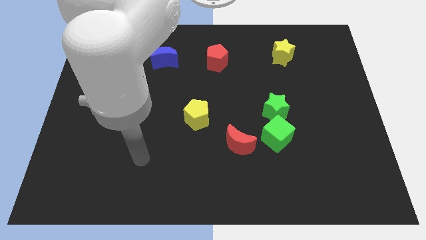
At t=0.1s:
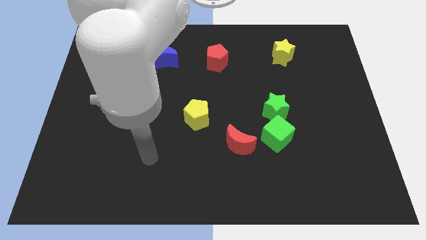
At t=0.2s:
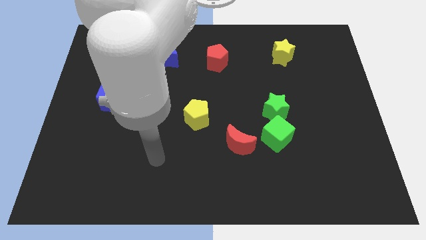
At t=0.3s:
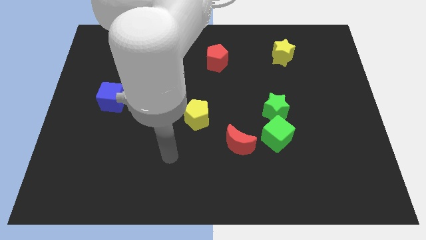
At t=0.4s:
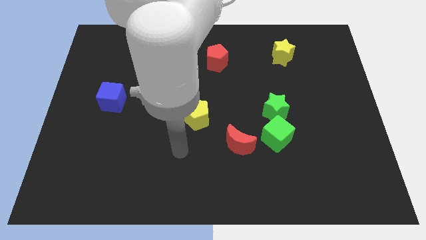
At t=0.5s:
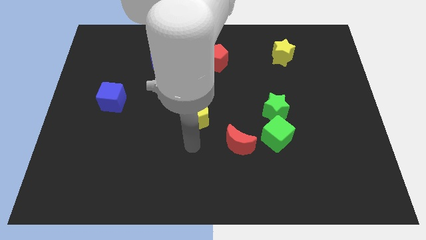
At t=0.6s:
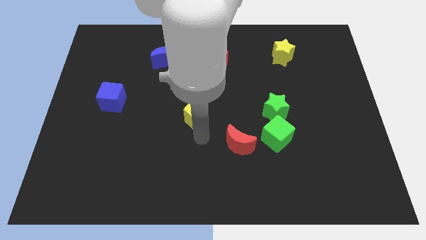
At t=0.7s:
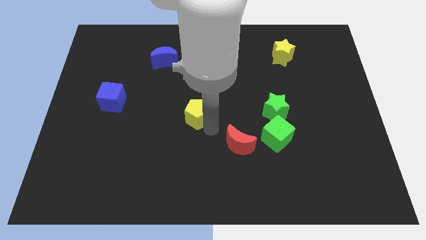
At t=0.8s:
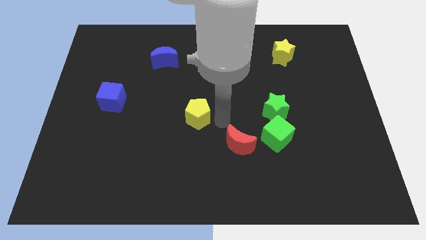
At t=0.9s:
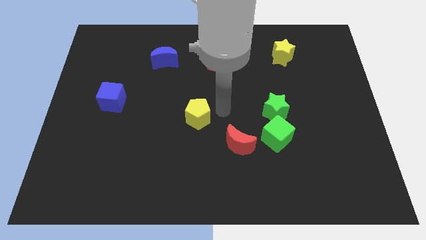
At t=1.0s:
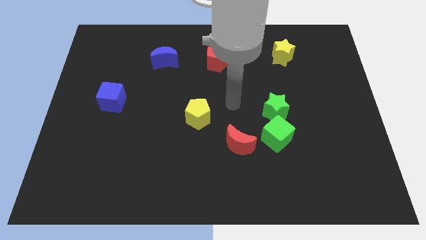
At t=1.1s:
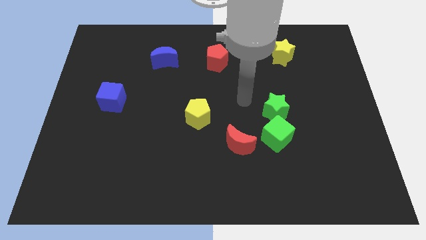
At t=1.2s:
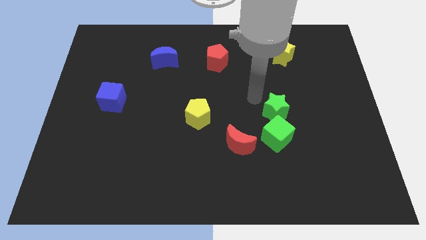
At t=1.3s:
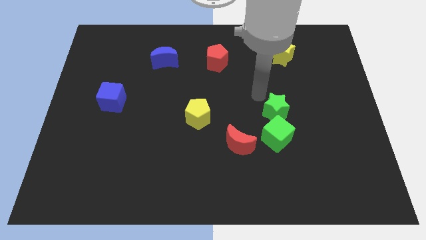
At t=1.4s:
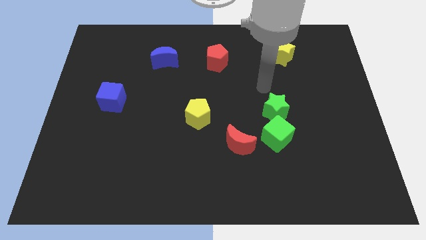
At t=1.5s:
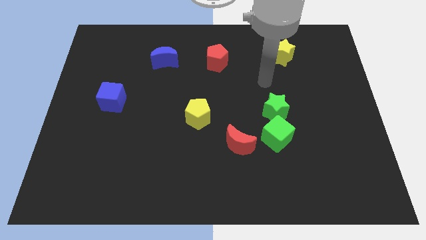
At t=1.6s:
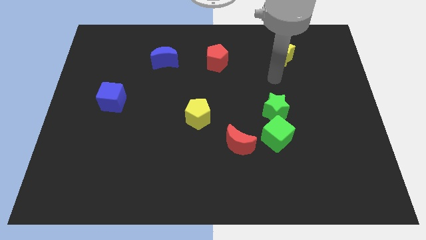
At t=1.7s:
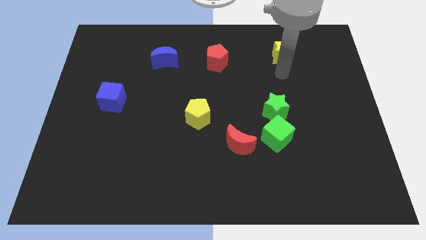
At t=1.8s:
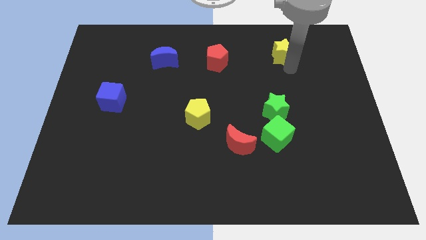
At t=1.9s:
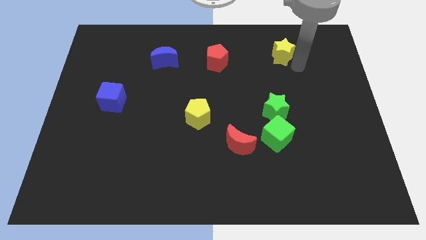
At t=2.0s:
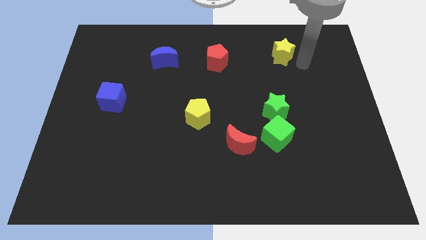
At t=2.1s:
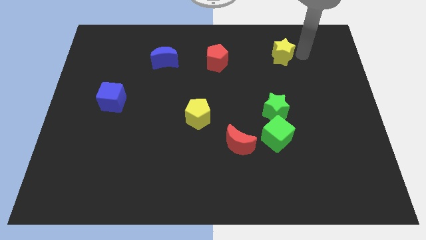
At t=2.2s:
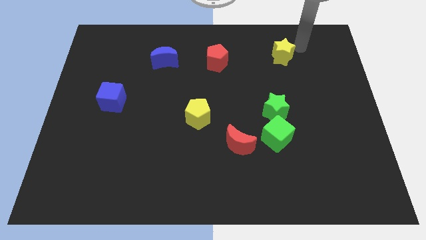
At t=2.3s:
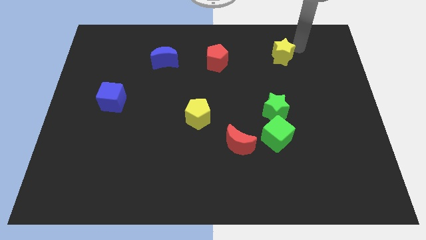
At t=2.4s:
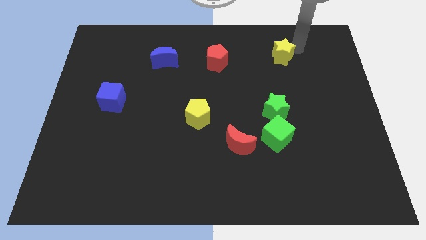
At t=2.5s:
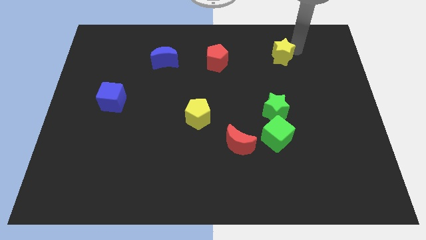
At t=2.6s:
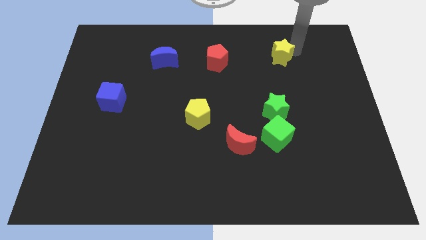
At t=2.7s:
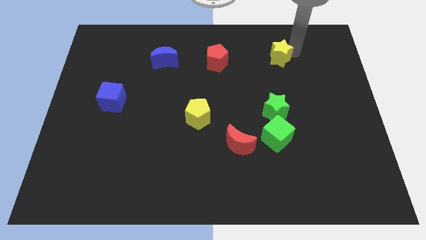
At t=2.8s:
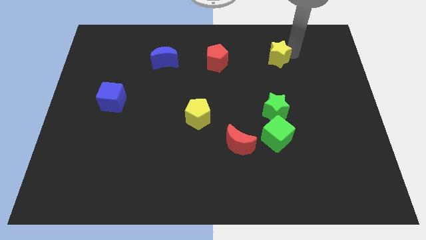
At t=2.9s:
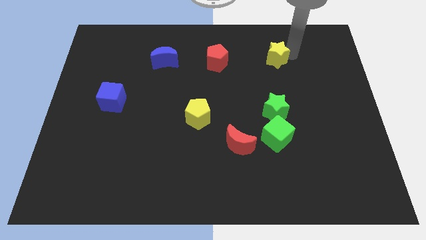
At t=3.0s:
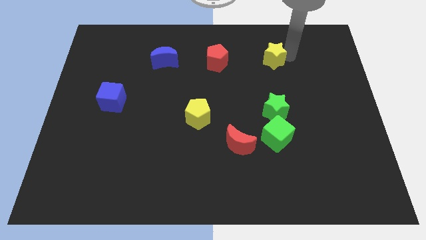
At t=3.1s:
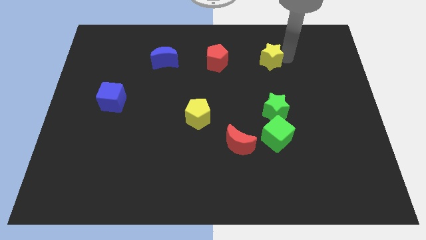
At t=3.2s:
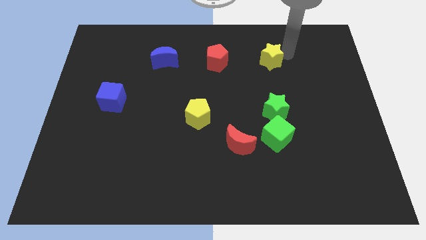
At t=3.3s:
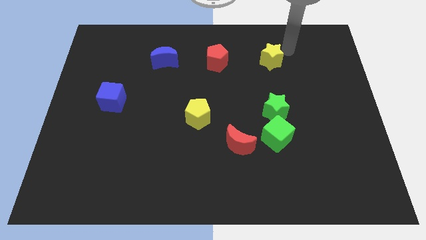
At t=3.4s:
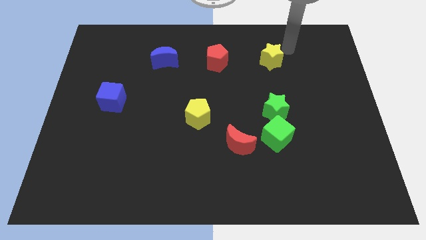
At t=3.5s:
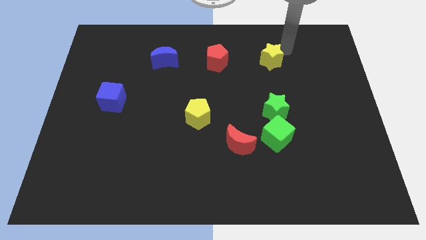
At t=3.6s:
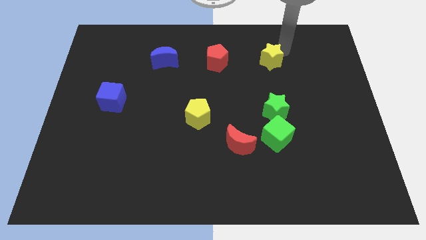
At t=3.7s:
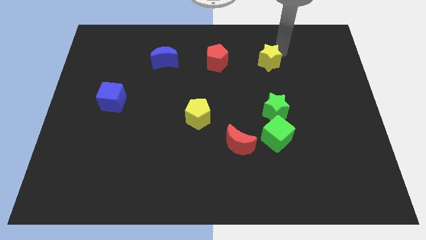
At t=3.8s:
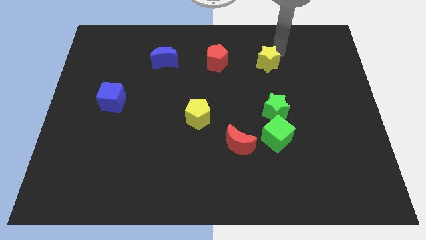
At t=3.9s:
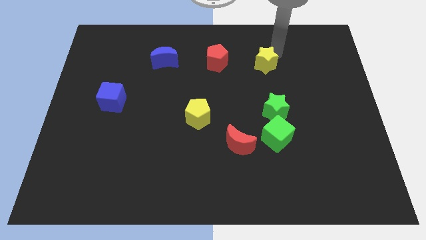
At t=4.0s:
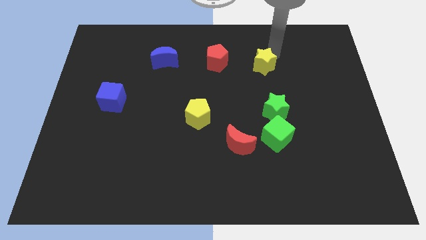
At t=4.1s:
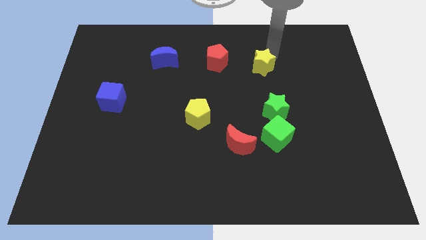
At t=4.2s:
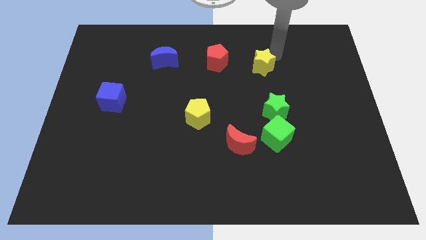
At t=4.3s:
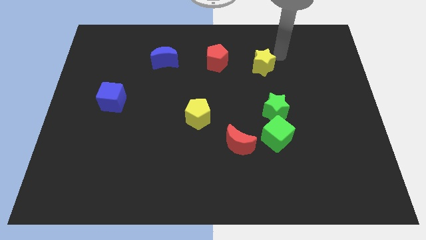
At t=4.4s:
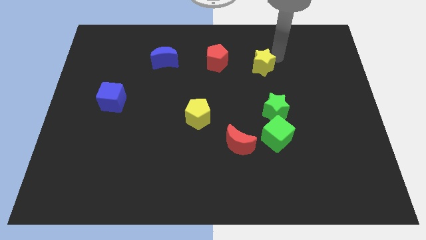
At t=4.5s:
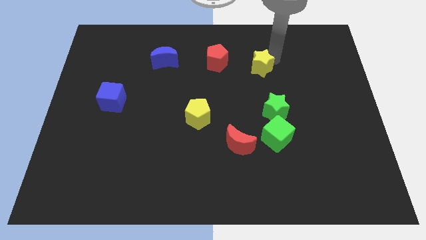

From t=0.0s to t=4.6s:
move the yellow star down and then left a little

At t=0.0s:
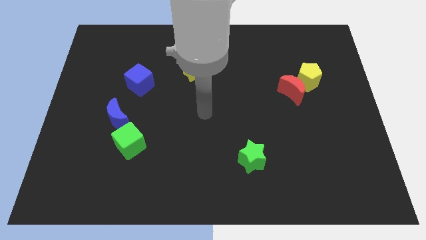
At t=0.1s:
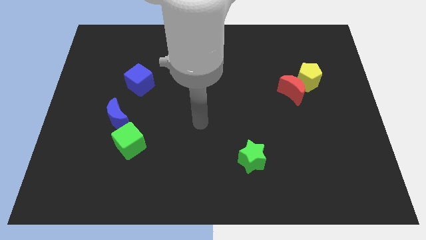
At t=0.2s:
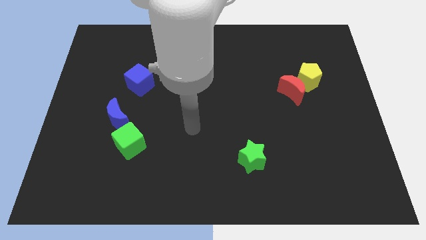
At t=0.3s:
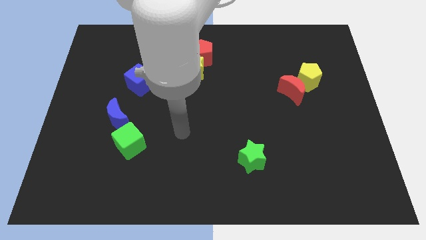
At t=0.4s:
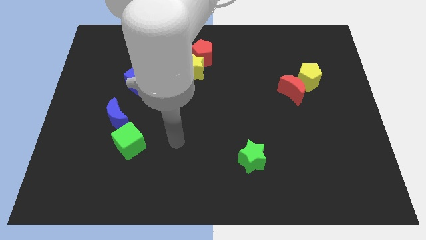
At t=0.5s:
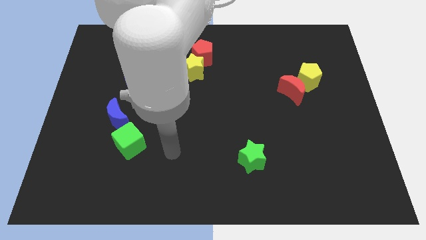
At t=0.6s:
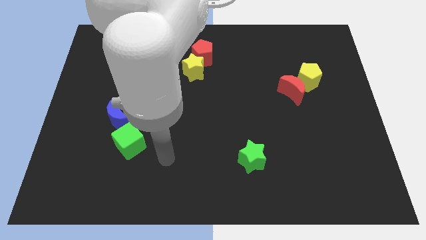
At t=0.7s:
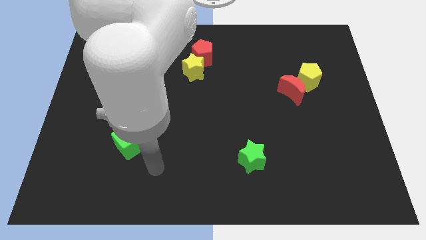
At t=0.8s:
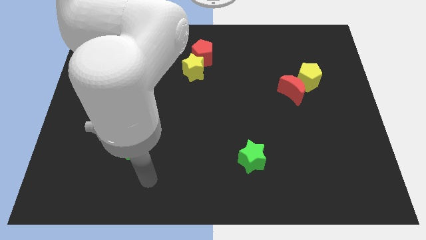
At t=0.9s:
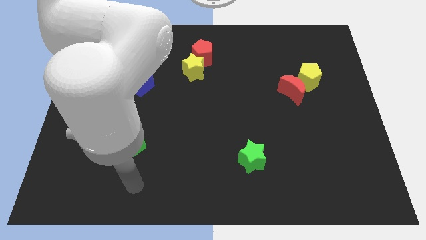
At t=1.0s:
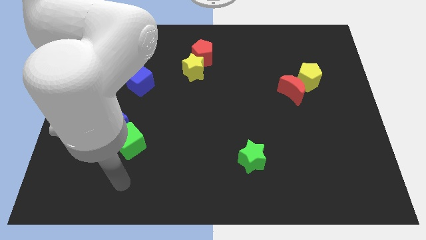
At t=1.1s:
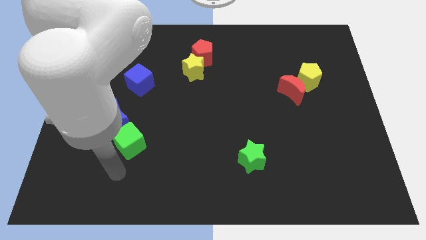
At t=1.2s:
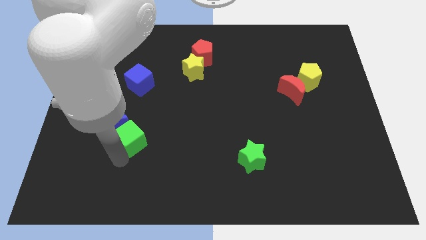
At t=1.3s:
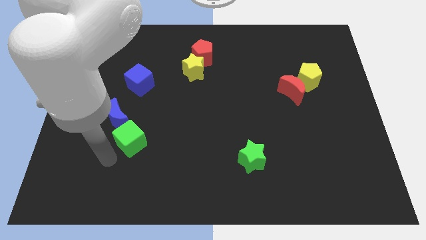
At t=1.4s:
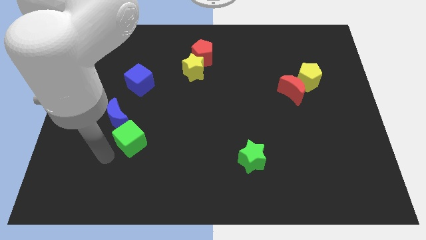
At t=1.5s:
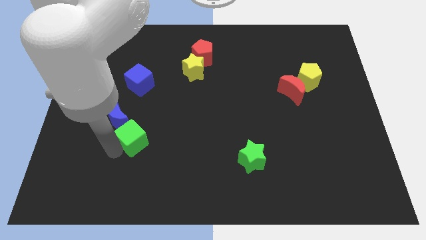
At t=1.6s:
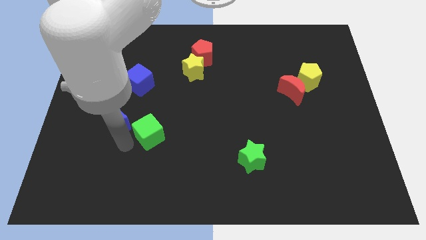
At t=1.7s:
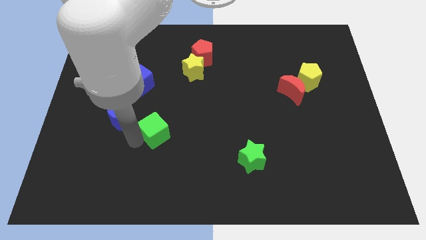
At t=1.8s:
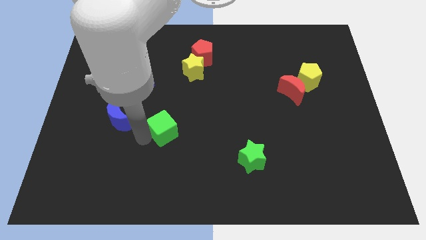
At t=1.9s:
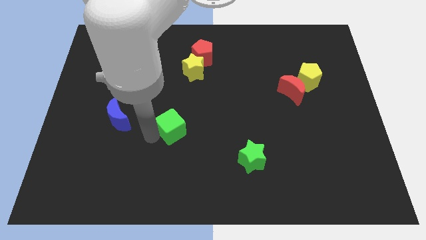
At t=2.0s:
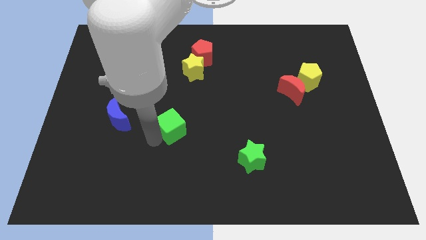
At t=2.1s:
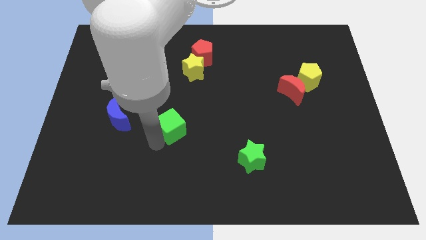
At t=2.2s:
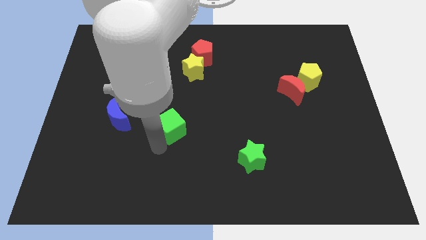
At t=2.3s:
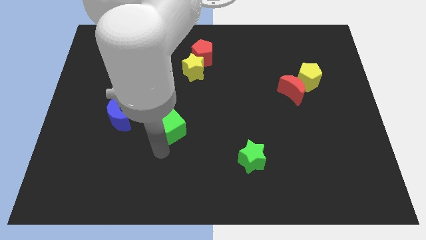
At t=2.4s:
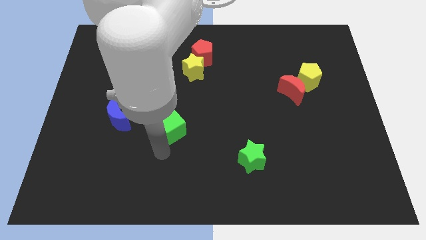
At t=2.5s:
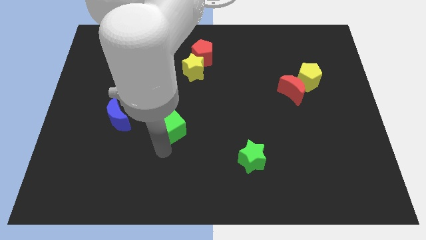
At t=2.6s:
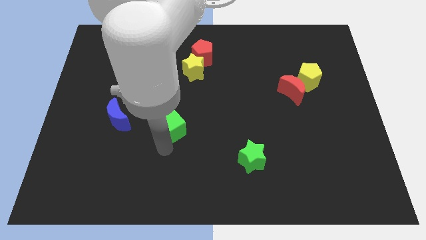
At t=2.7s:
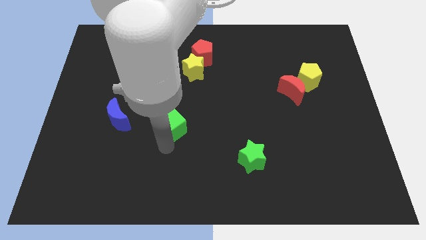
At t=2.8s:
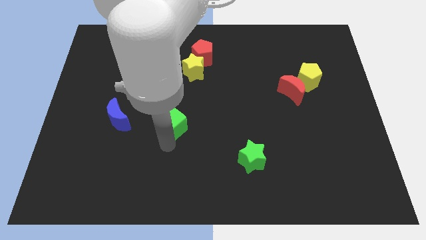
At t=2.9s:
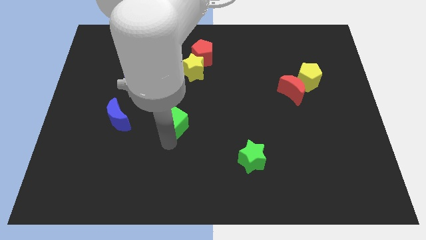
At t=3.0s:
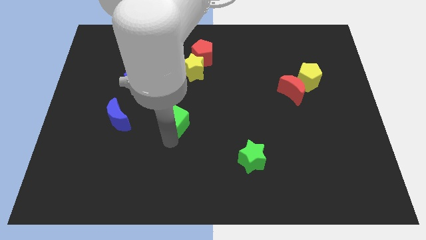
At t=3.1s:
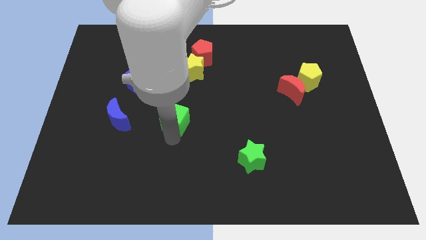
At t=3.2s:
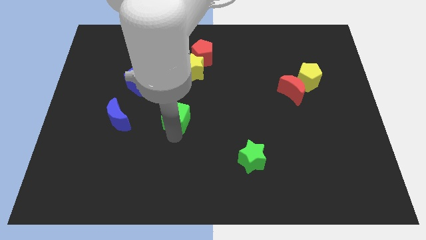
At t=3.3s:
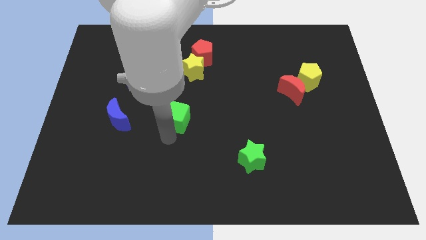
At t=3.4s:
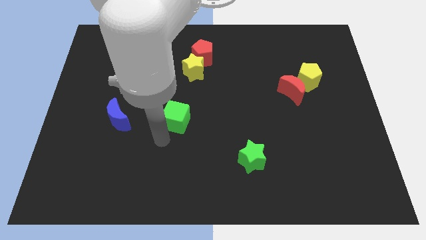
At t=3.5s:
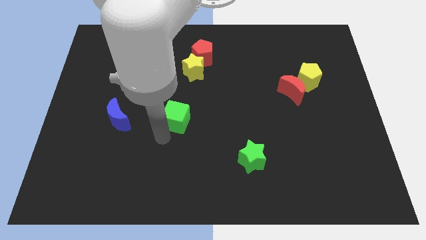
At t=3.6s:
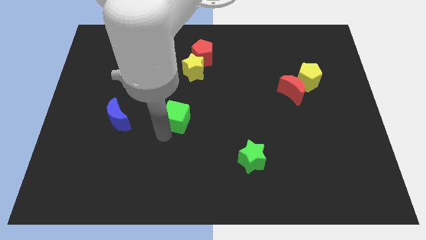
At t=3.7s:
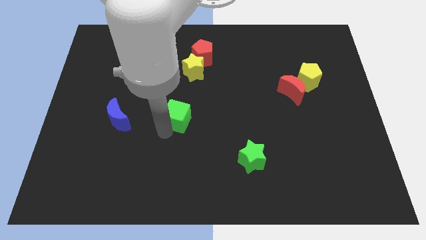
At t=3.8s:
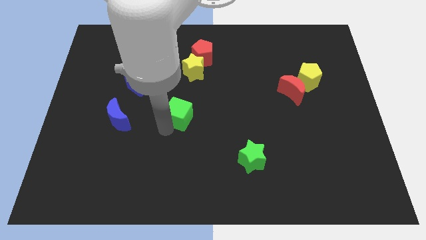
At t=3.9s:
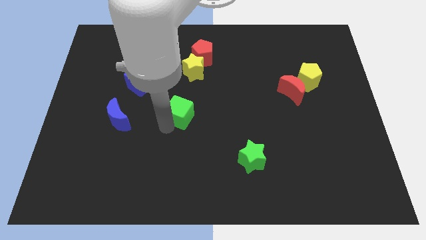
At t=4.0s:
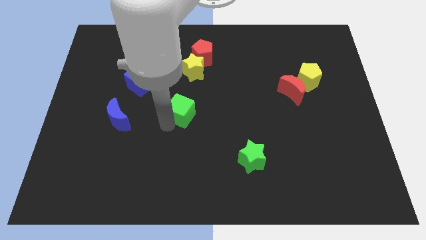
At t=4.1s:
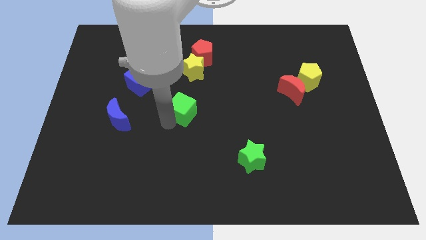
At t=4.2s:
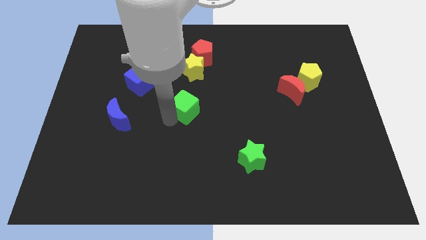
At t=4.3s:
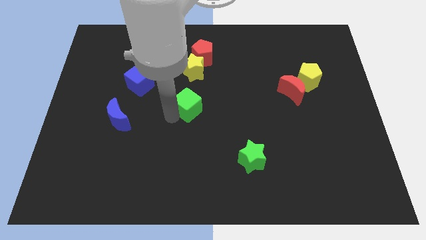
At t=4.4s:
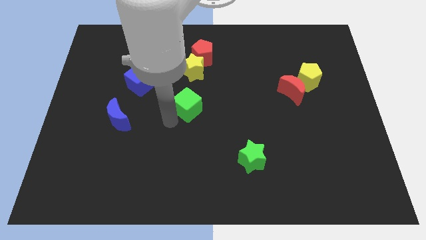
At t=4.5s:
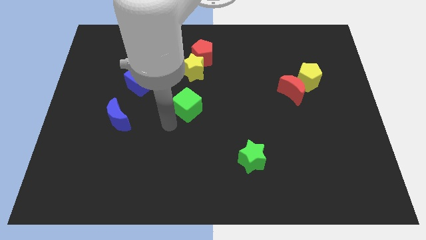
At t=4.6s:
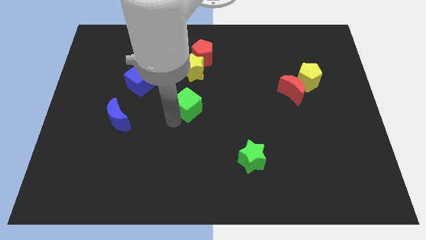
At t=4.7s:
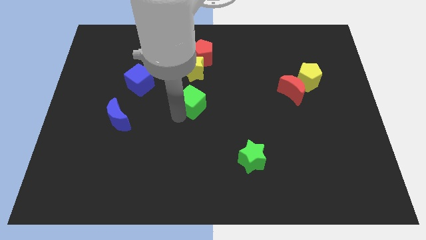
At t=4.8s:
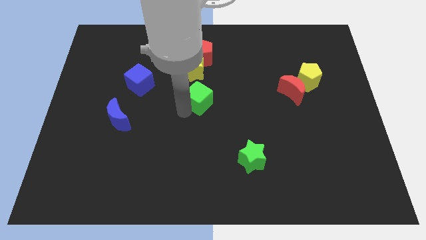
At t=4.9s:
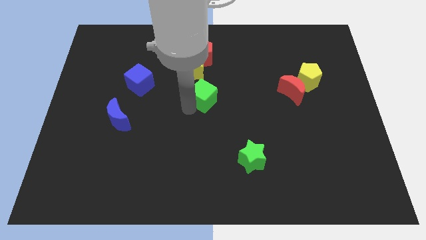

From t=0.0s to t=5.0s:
slide the green cube upwards and to the right
